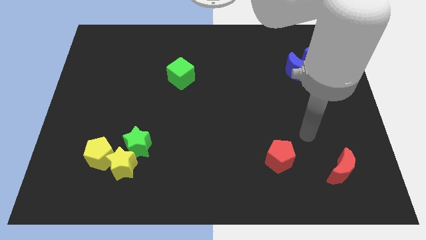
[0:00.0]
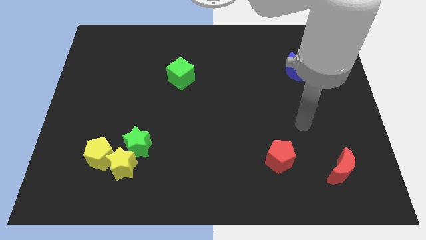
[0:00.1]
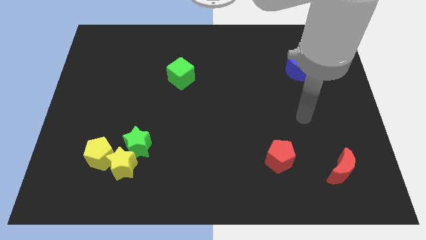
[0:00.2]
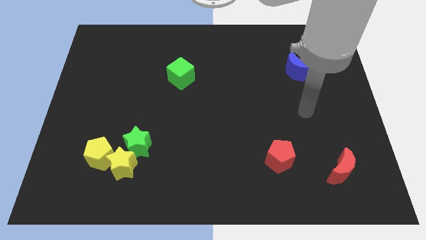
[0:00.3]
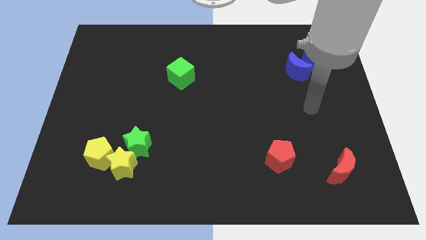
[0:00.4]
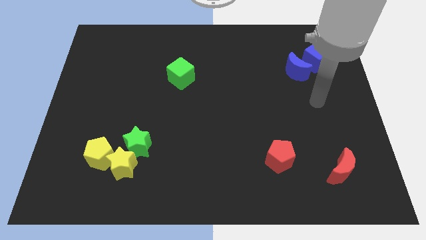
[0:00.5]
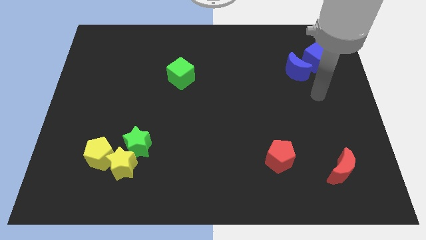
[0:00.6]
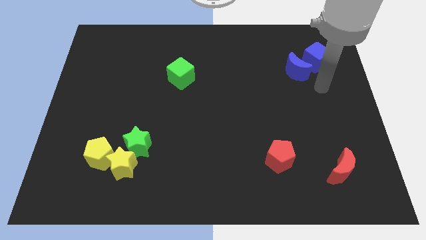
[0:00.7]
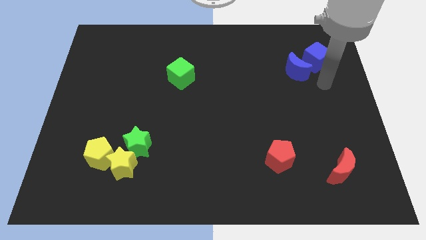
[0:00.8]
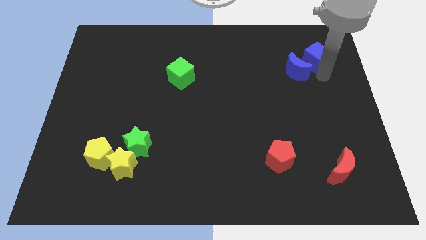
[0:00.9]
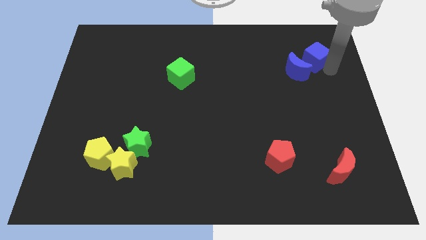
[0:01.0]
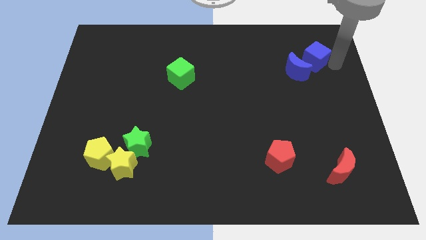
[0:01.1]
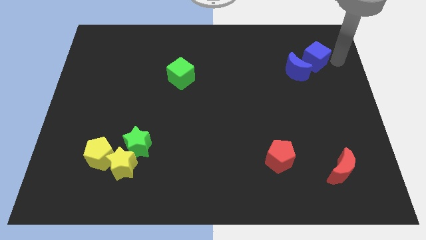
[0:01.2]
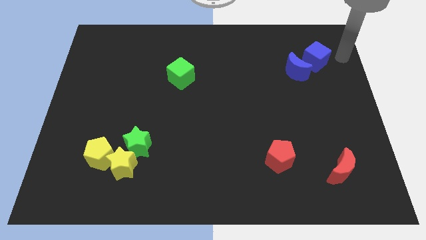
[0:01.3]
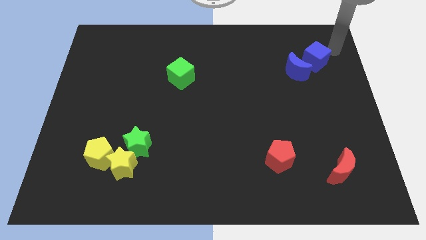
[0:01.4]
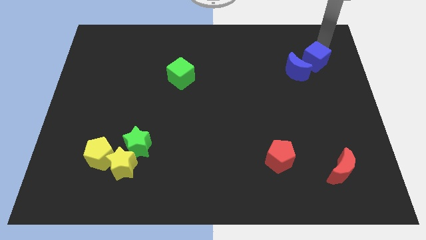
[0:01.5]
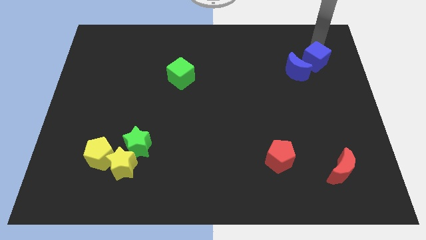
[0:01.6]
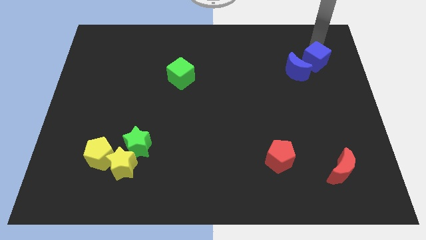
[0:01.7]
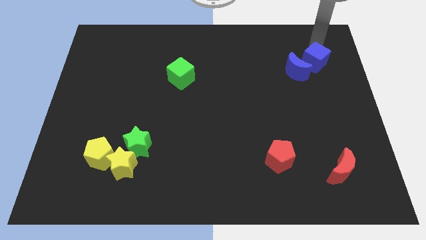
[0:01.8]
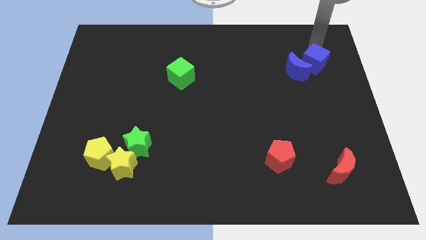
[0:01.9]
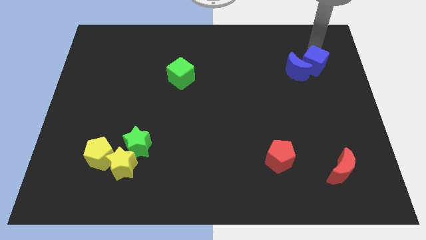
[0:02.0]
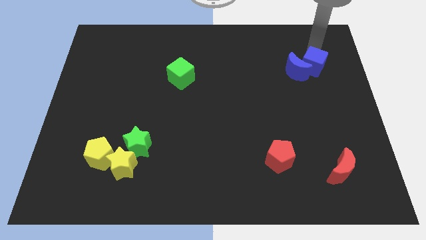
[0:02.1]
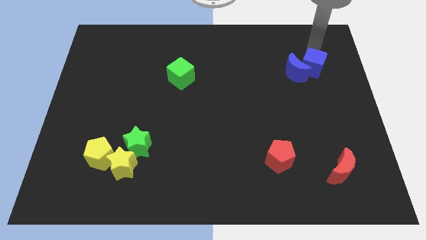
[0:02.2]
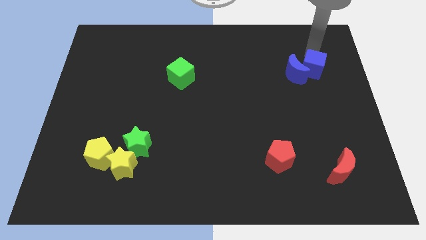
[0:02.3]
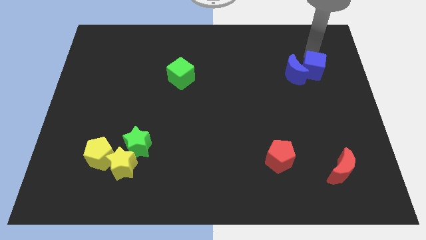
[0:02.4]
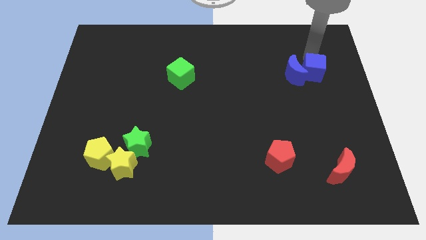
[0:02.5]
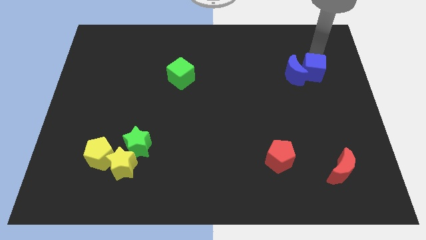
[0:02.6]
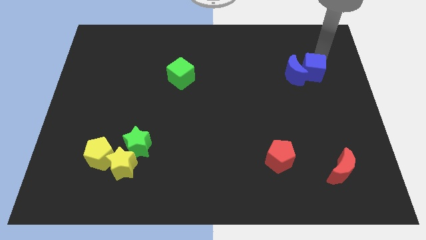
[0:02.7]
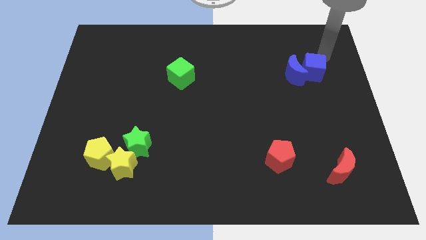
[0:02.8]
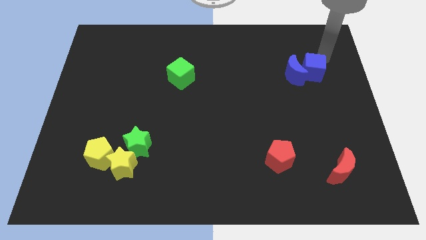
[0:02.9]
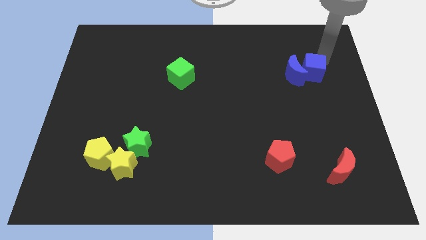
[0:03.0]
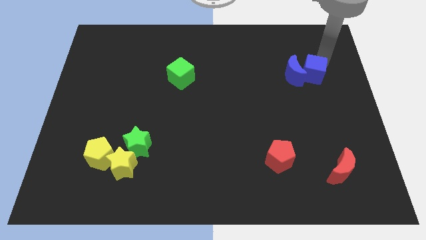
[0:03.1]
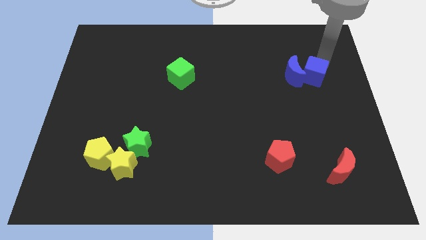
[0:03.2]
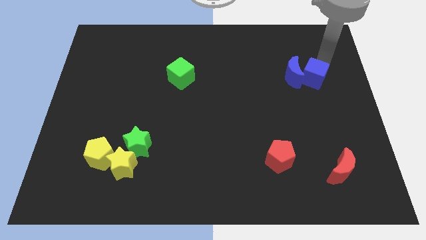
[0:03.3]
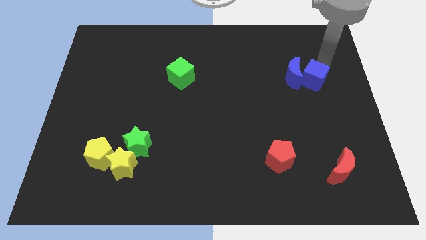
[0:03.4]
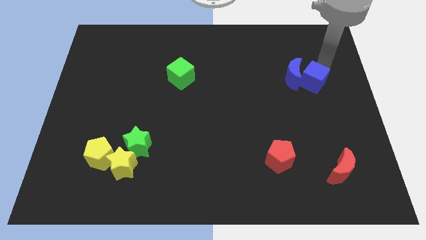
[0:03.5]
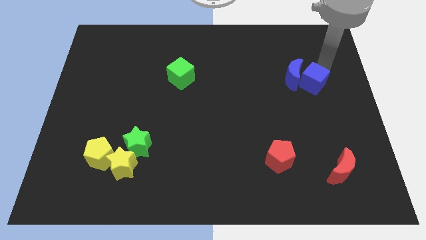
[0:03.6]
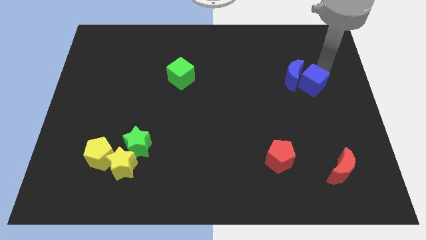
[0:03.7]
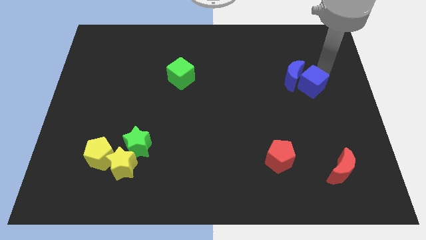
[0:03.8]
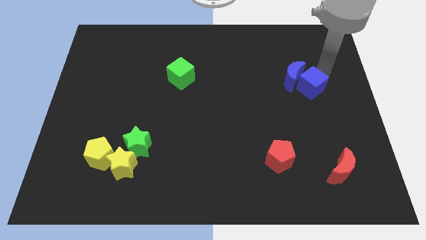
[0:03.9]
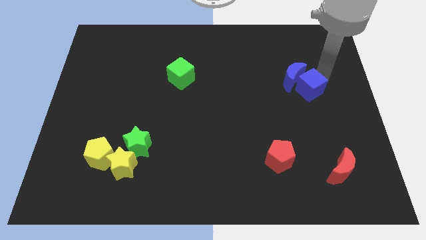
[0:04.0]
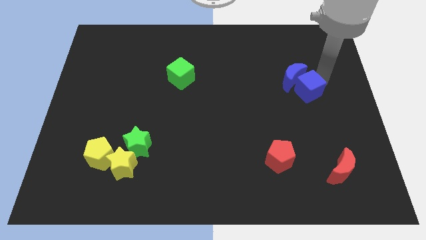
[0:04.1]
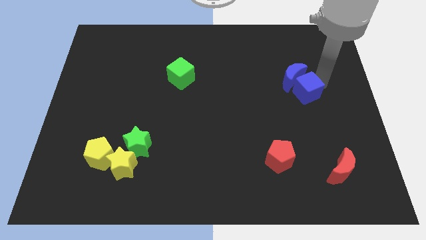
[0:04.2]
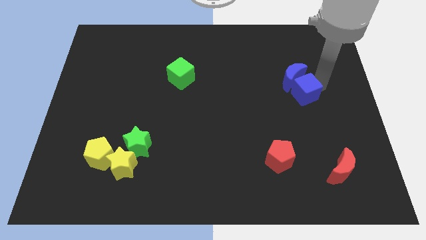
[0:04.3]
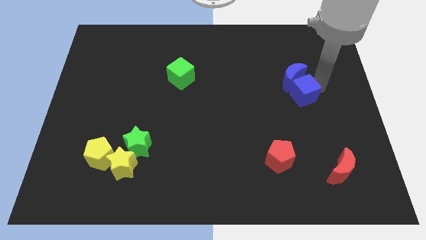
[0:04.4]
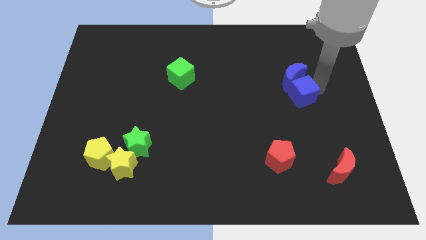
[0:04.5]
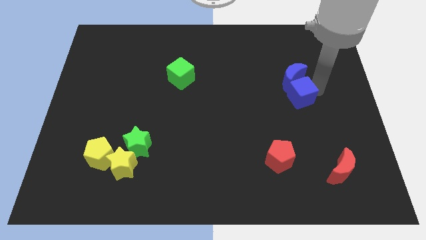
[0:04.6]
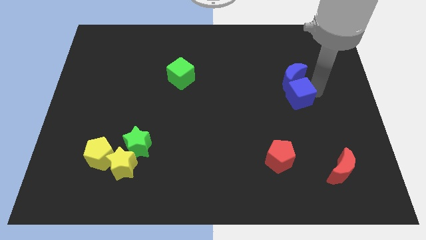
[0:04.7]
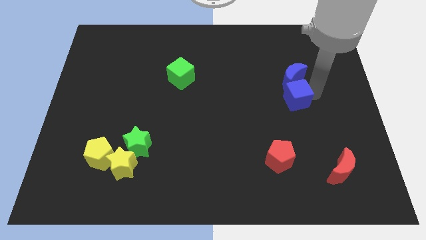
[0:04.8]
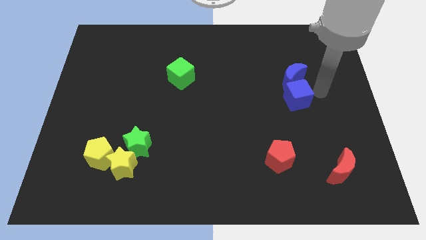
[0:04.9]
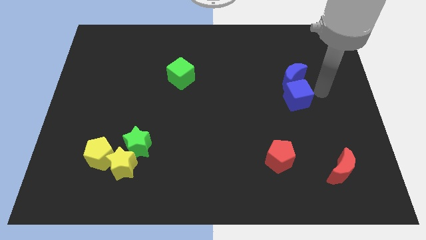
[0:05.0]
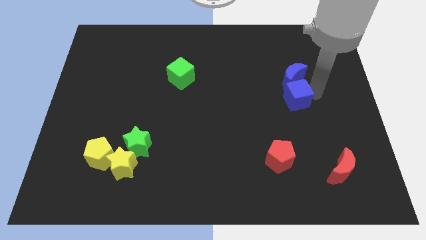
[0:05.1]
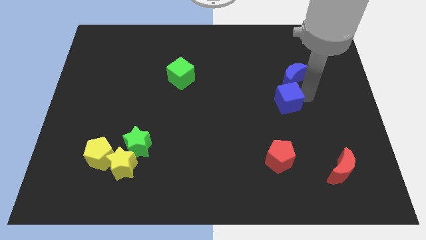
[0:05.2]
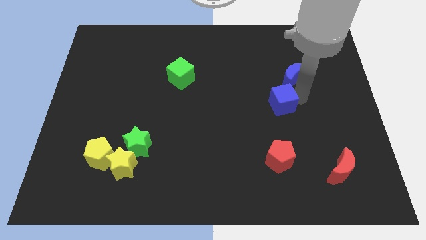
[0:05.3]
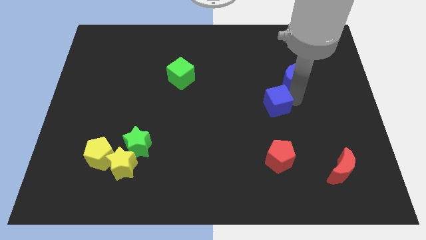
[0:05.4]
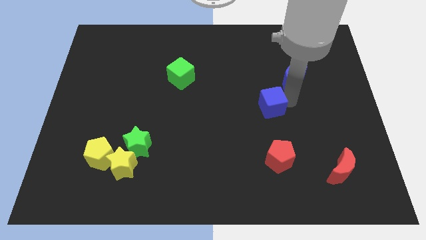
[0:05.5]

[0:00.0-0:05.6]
slide the blue cube diagonally down and left

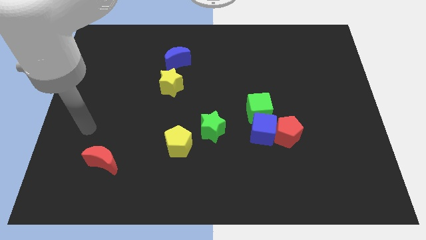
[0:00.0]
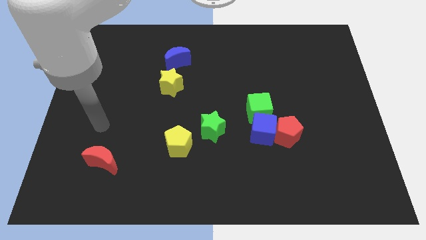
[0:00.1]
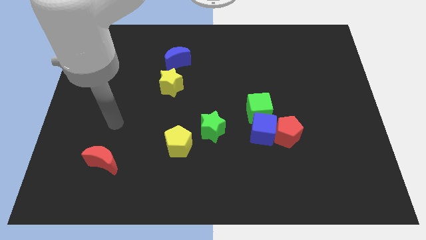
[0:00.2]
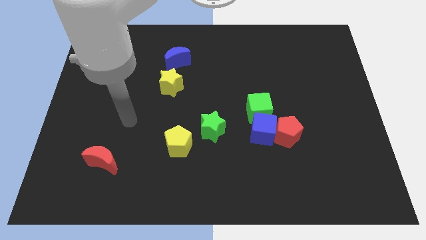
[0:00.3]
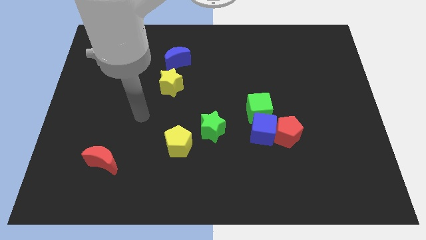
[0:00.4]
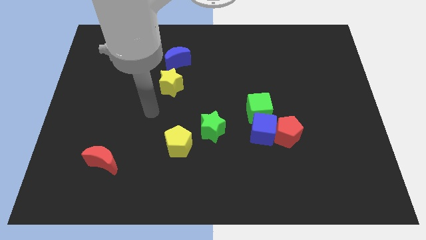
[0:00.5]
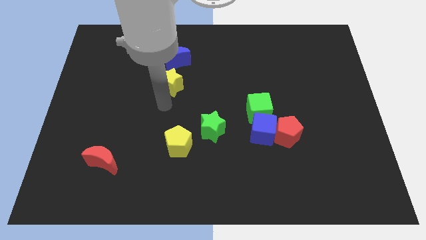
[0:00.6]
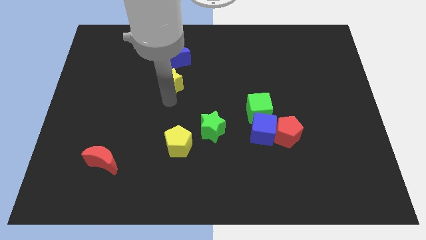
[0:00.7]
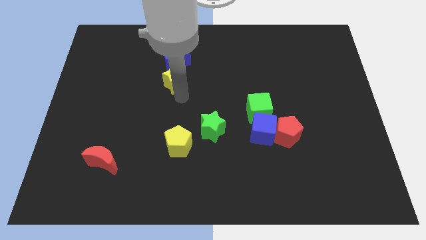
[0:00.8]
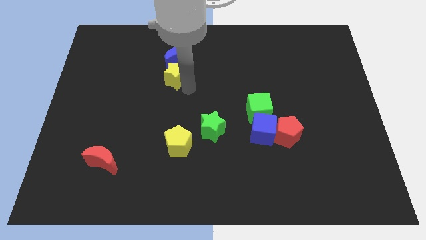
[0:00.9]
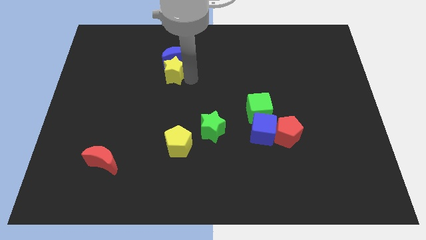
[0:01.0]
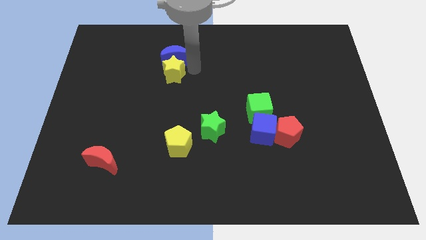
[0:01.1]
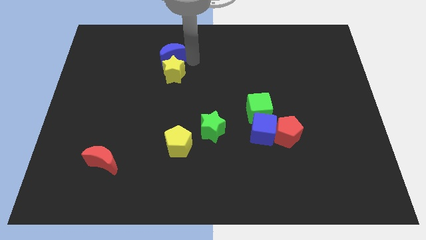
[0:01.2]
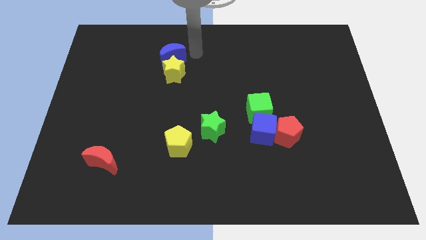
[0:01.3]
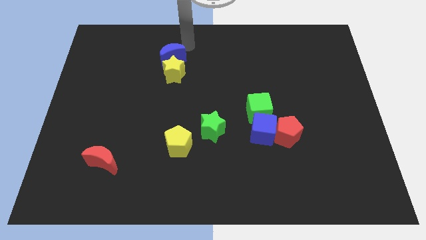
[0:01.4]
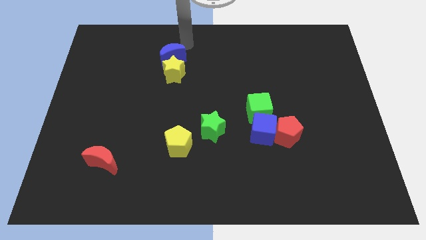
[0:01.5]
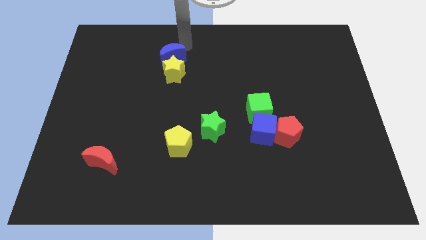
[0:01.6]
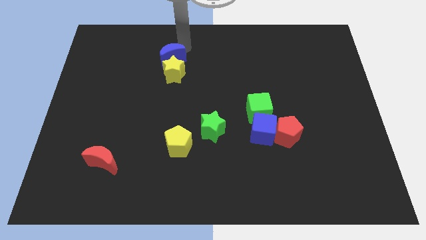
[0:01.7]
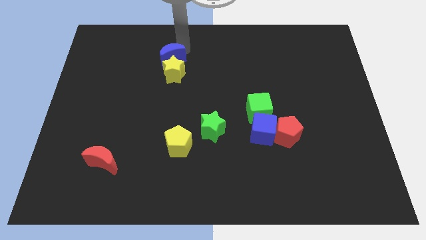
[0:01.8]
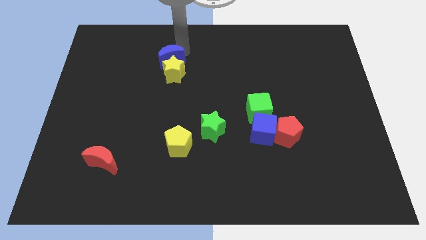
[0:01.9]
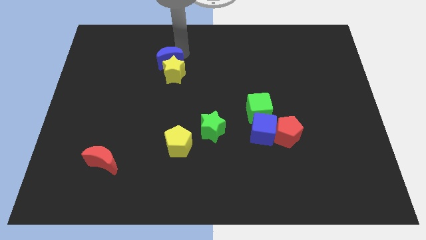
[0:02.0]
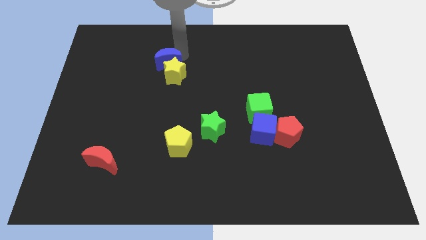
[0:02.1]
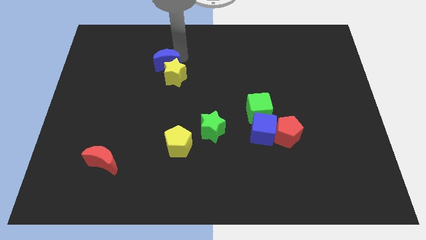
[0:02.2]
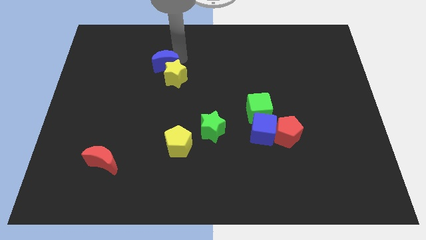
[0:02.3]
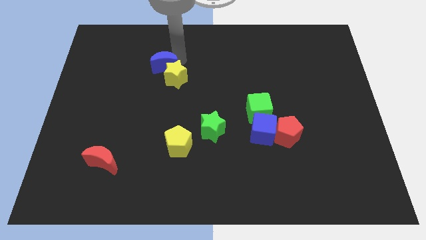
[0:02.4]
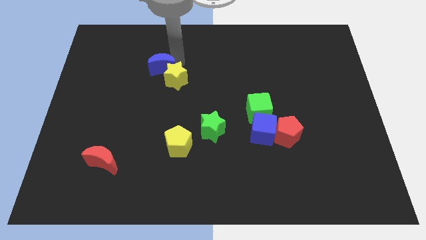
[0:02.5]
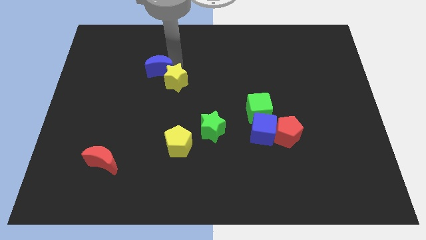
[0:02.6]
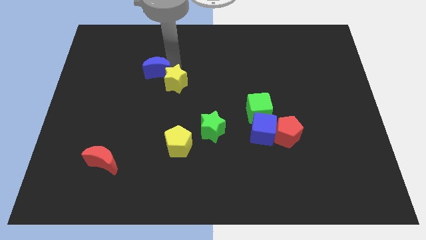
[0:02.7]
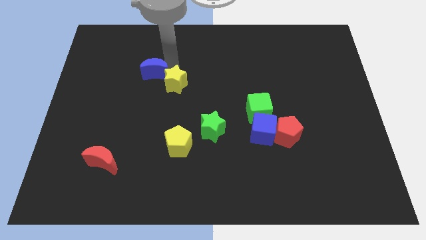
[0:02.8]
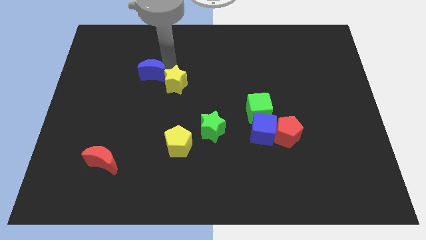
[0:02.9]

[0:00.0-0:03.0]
push the blue moon a bit downwards and then to the left
